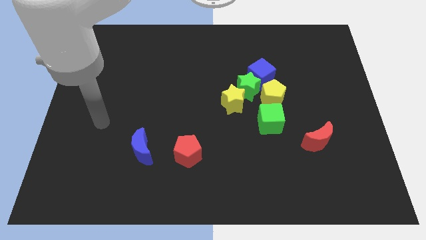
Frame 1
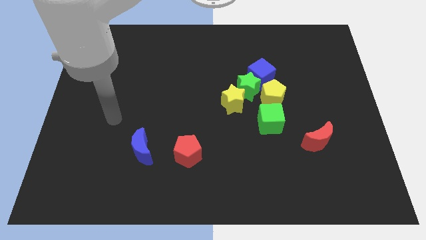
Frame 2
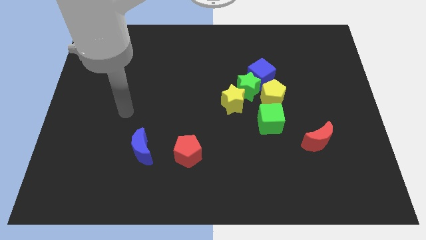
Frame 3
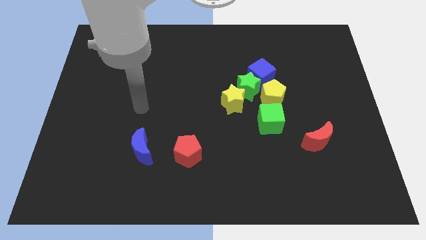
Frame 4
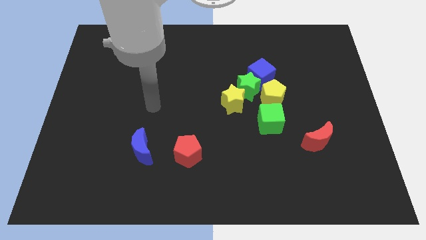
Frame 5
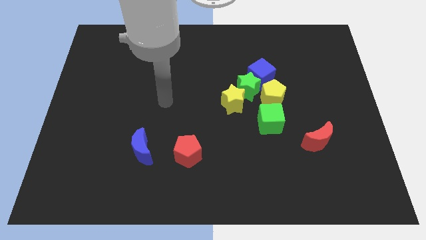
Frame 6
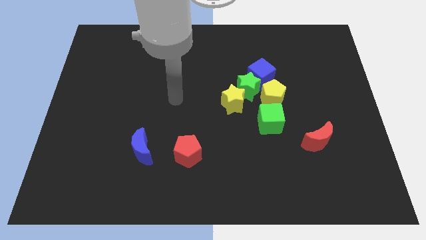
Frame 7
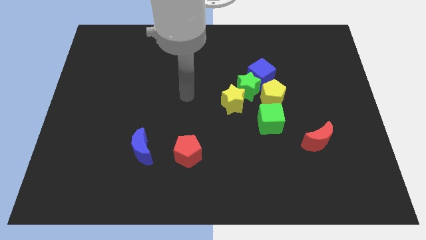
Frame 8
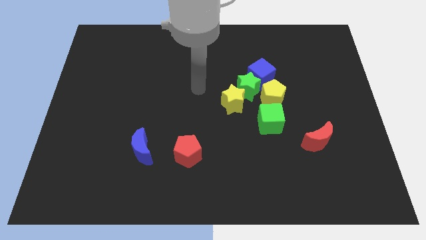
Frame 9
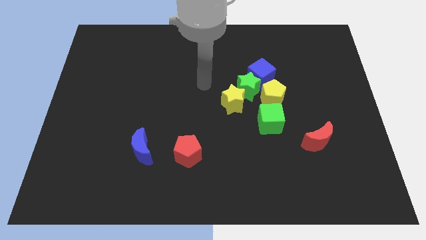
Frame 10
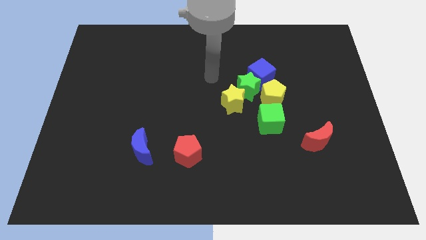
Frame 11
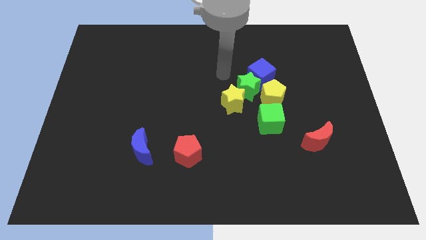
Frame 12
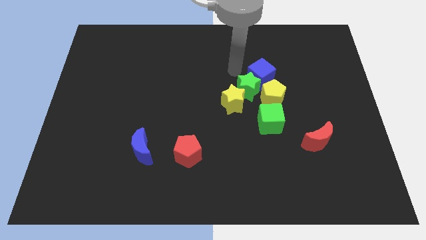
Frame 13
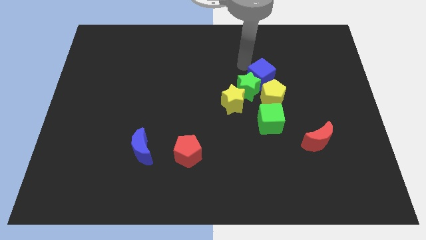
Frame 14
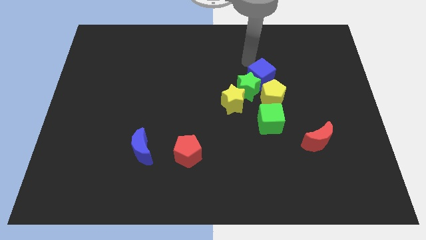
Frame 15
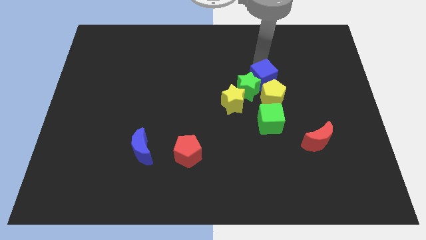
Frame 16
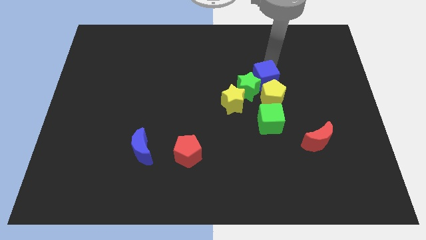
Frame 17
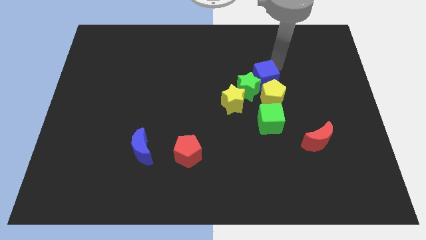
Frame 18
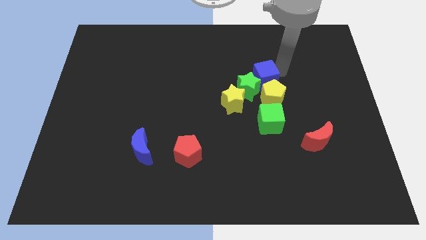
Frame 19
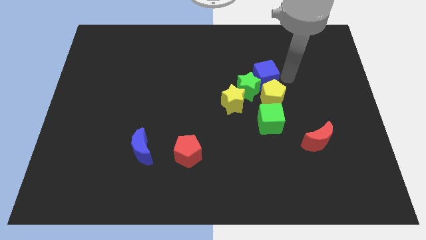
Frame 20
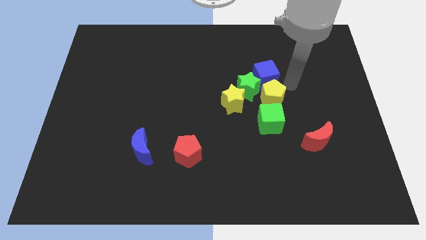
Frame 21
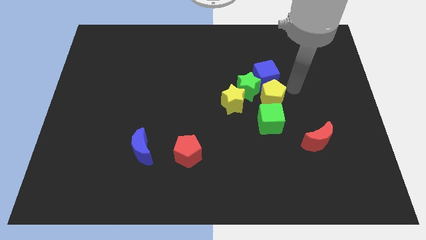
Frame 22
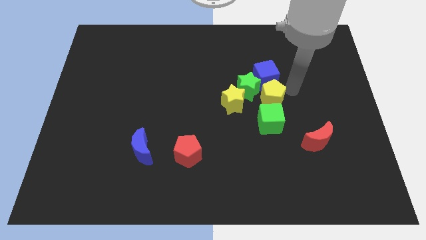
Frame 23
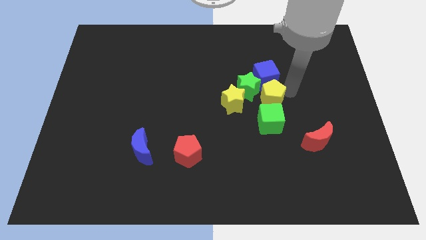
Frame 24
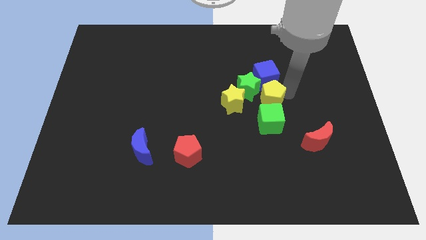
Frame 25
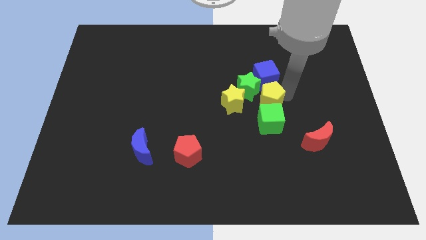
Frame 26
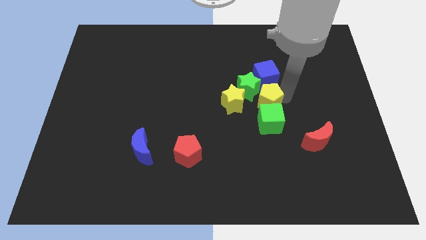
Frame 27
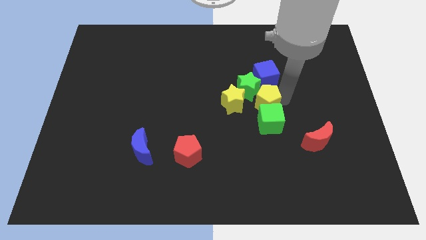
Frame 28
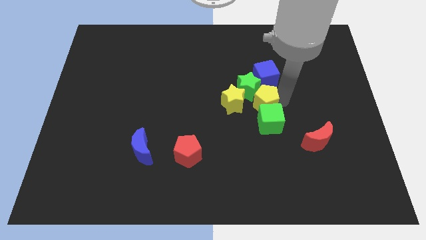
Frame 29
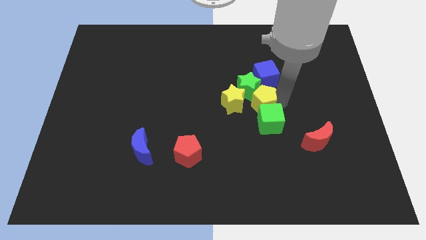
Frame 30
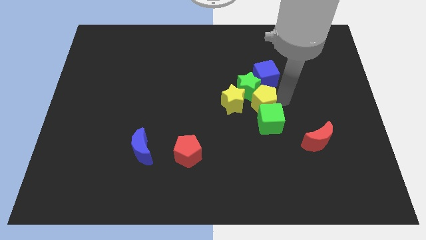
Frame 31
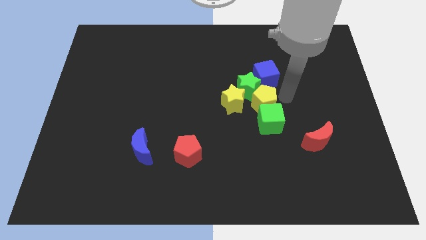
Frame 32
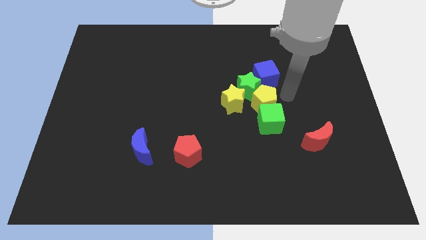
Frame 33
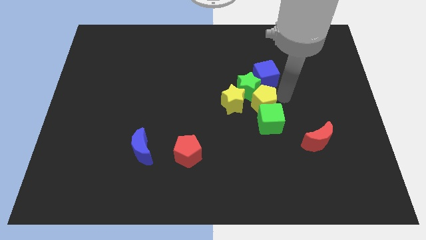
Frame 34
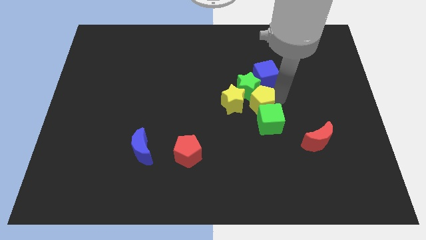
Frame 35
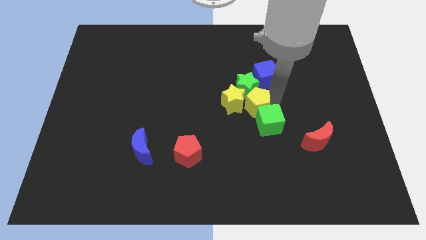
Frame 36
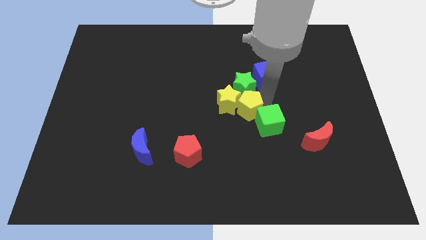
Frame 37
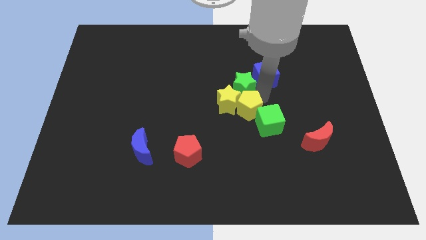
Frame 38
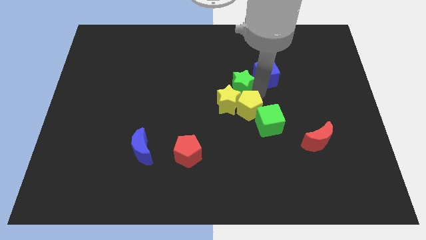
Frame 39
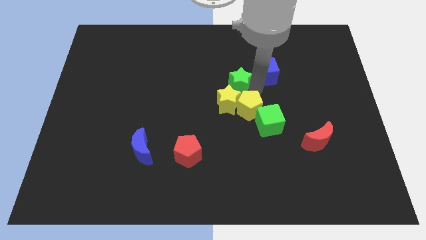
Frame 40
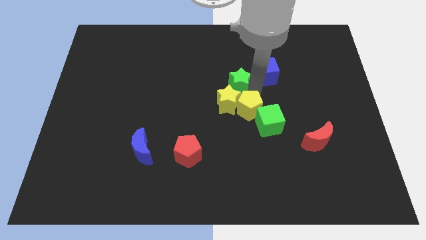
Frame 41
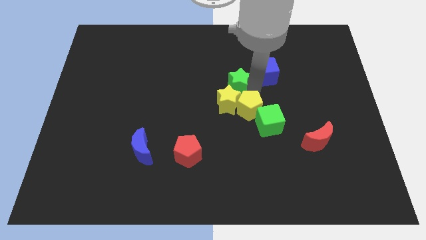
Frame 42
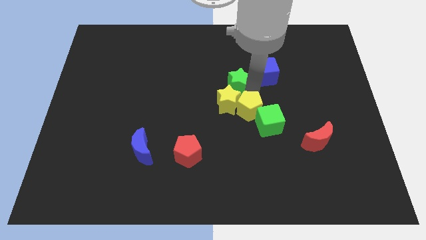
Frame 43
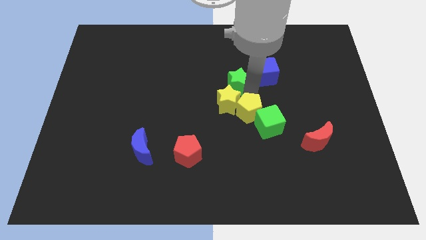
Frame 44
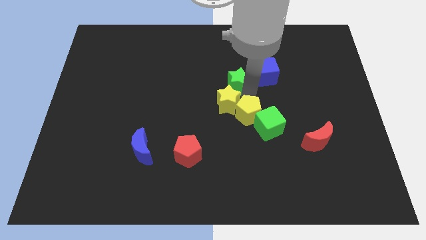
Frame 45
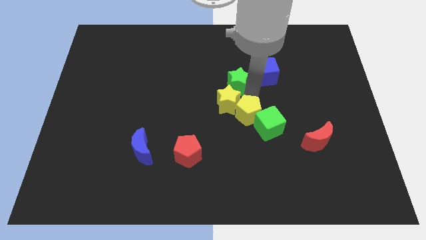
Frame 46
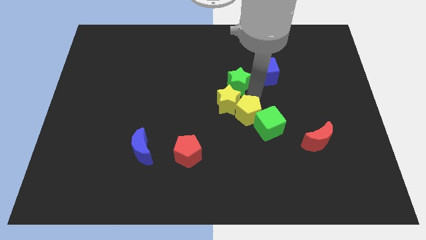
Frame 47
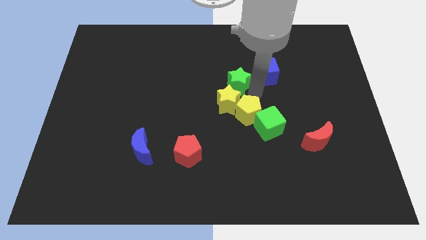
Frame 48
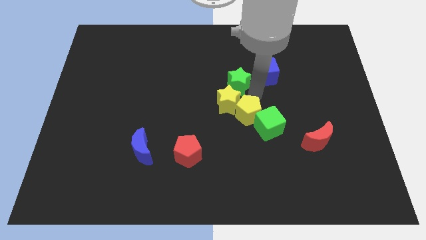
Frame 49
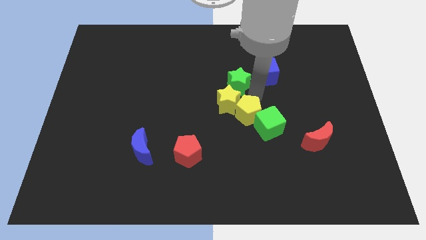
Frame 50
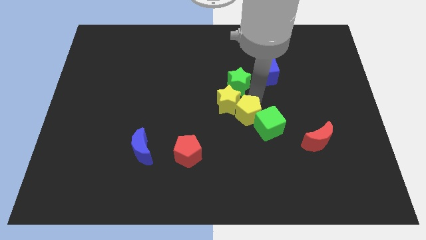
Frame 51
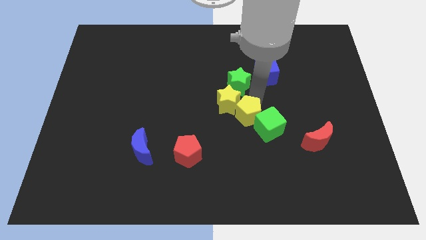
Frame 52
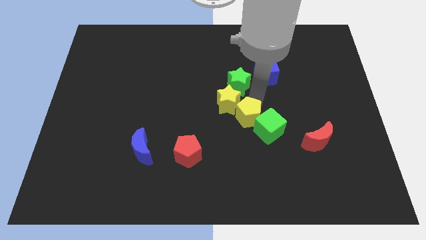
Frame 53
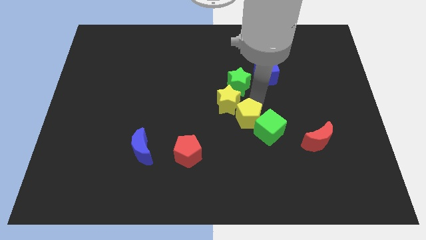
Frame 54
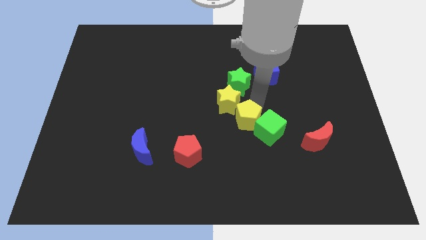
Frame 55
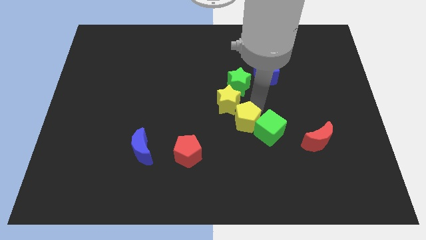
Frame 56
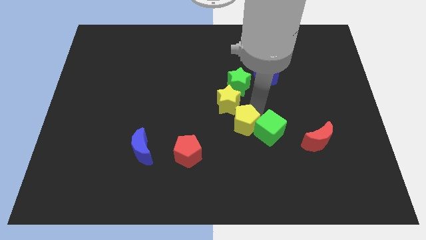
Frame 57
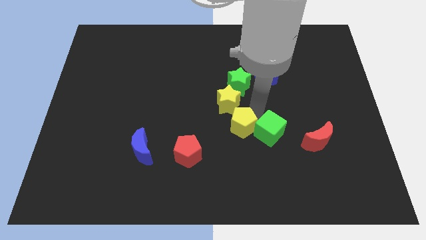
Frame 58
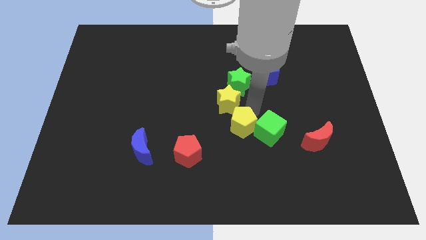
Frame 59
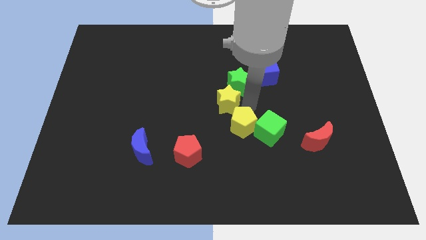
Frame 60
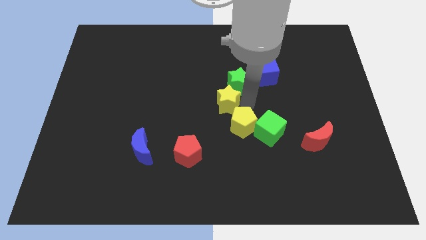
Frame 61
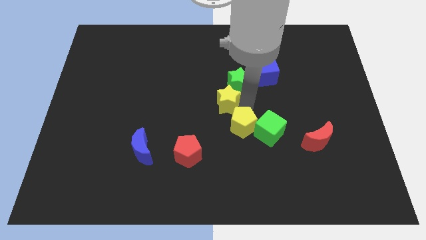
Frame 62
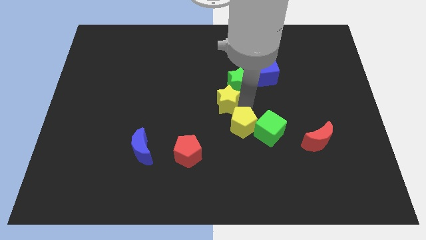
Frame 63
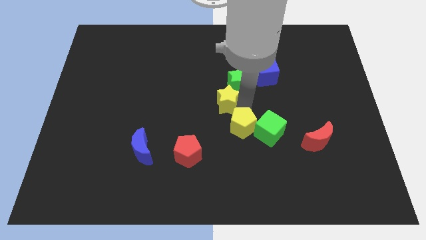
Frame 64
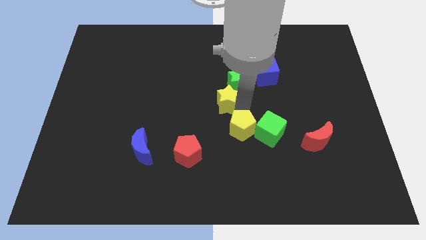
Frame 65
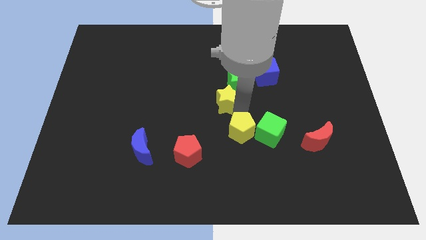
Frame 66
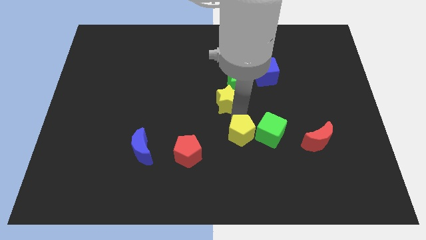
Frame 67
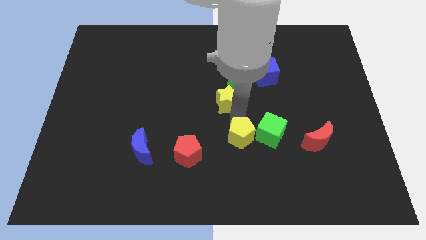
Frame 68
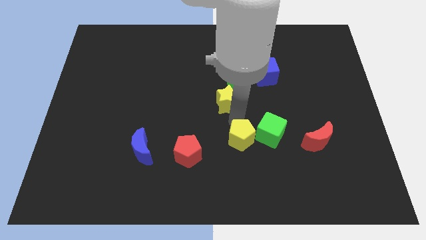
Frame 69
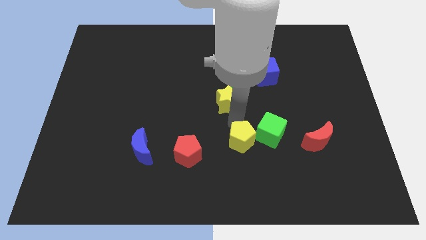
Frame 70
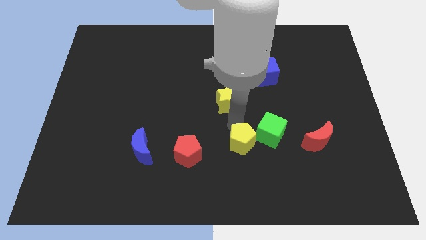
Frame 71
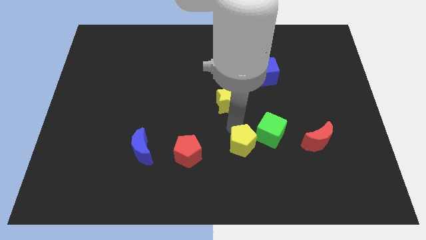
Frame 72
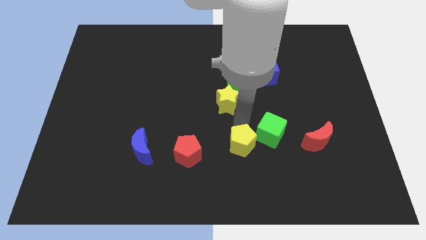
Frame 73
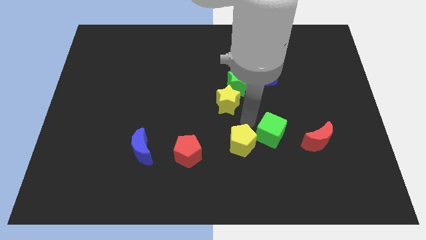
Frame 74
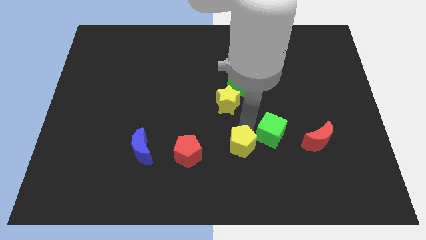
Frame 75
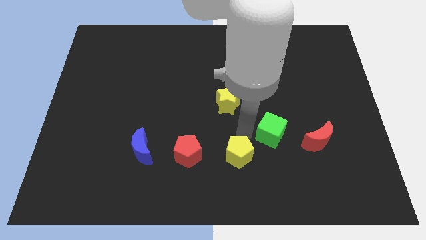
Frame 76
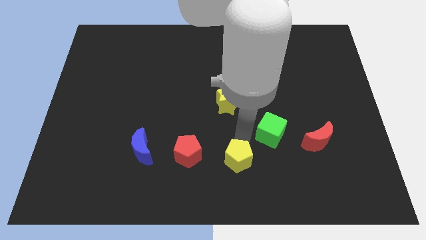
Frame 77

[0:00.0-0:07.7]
slide the yellow pentagon to the bottom
